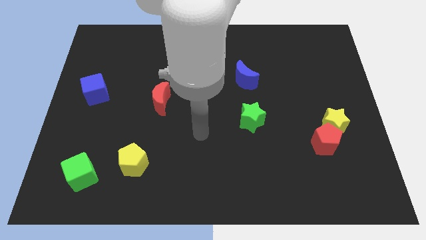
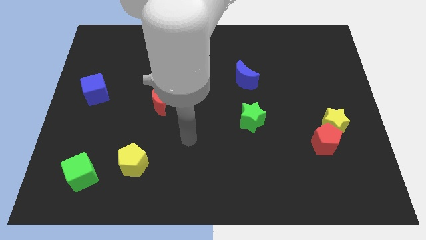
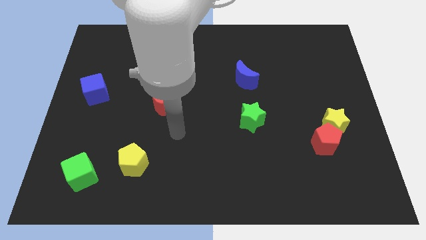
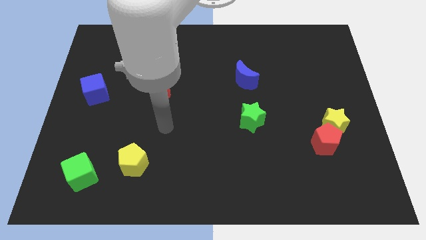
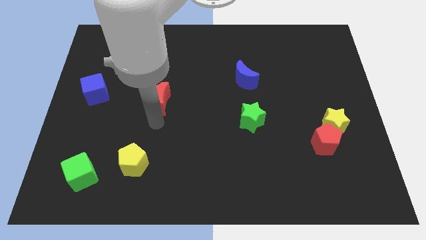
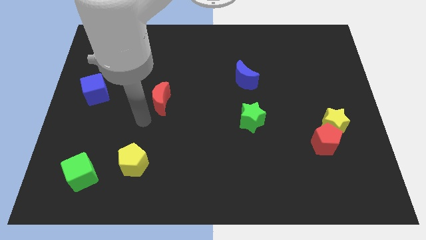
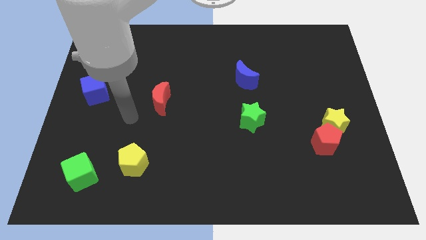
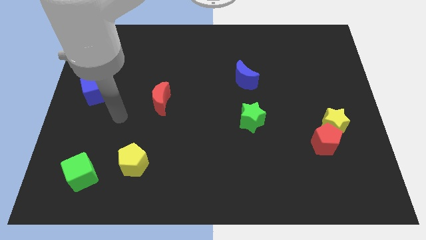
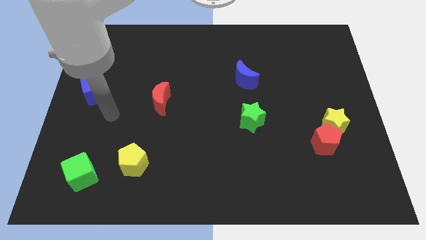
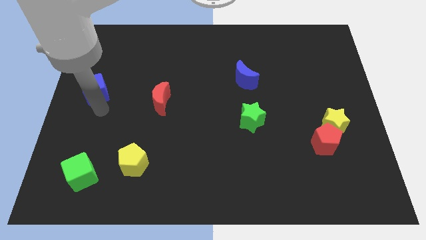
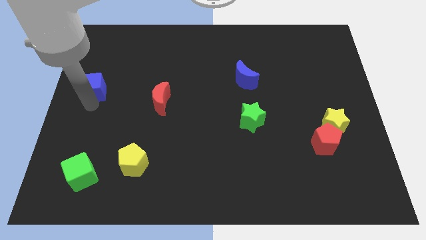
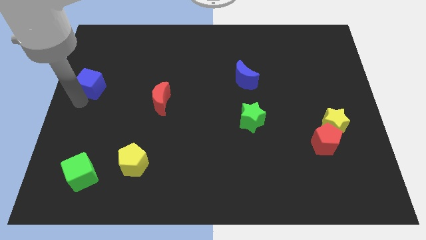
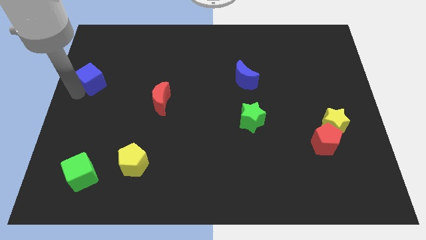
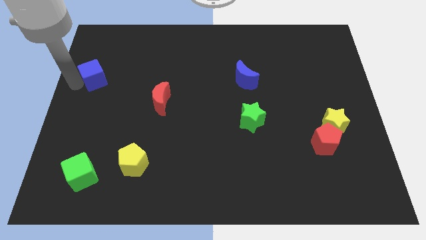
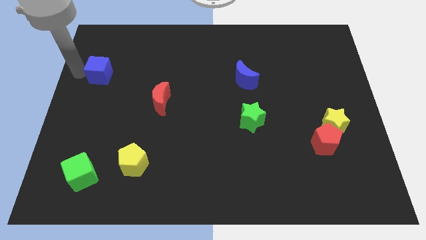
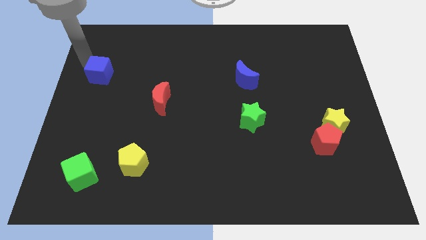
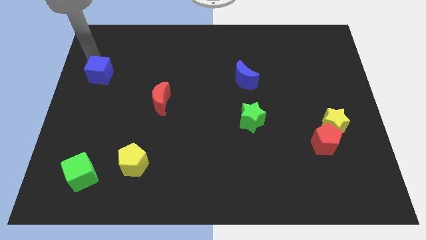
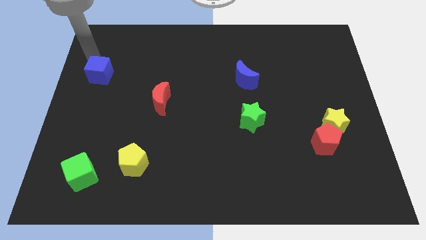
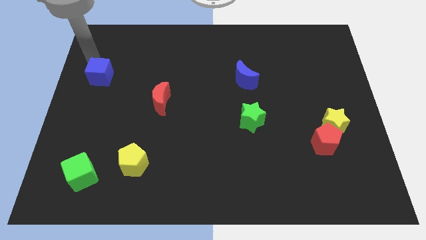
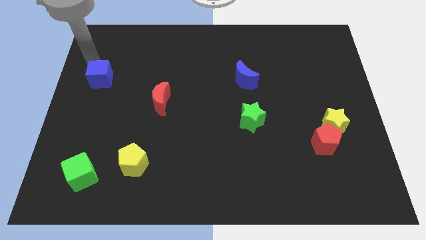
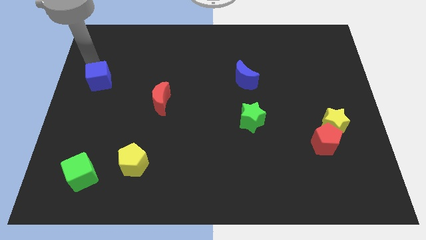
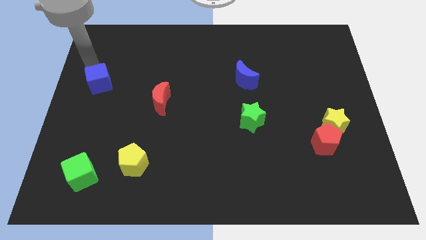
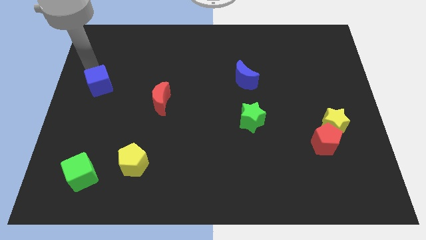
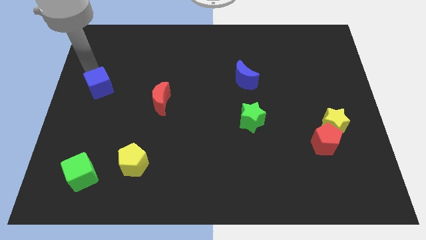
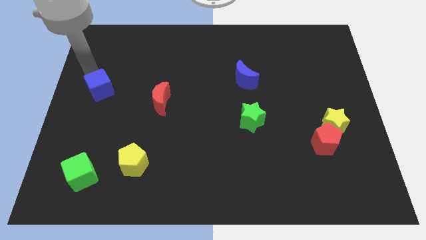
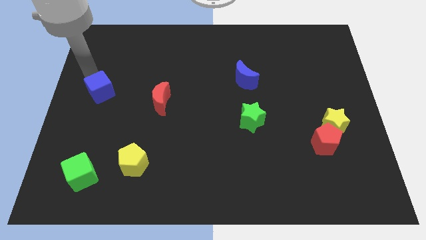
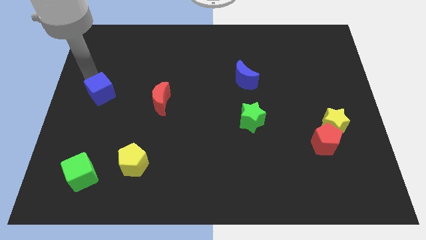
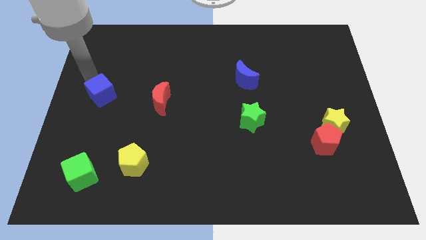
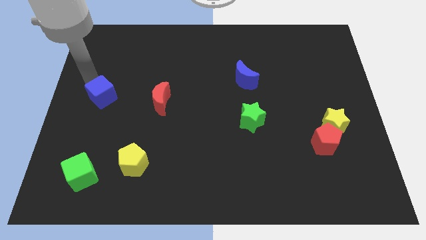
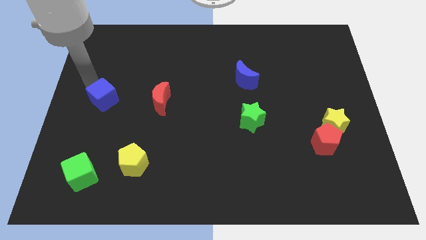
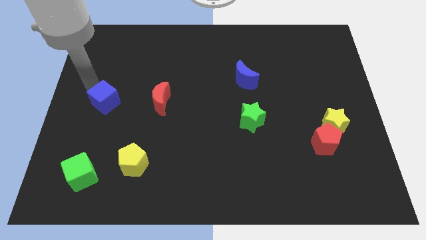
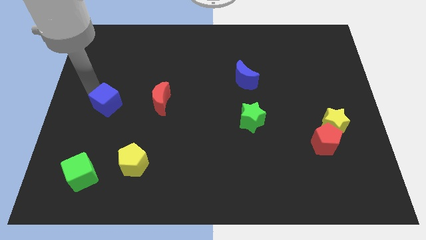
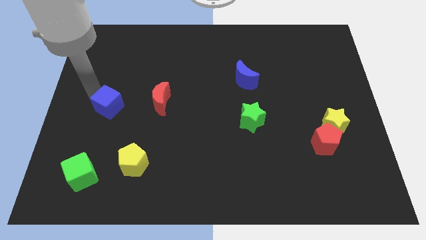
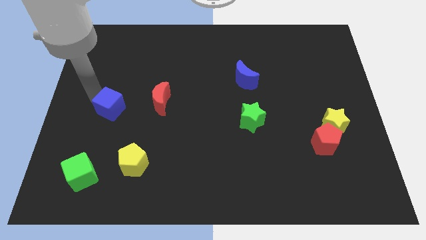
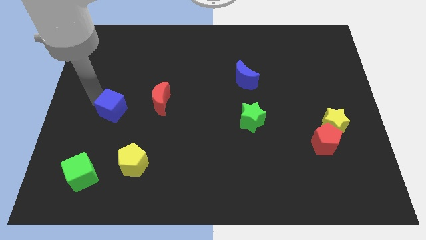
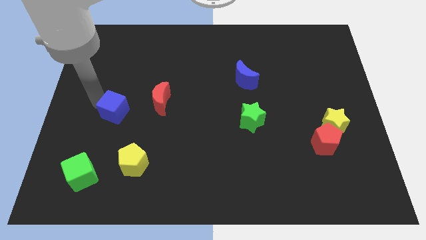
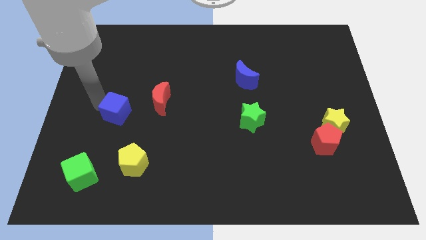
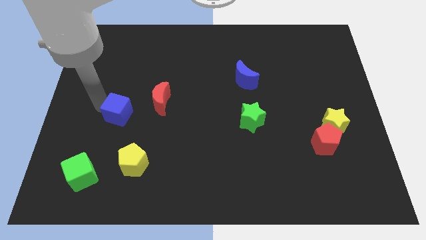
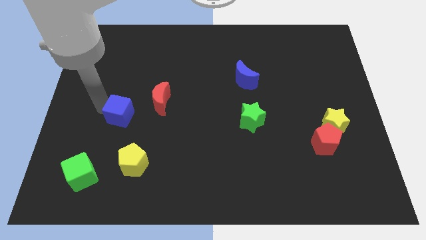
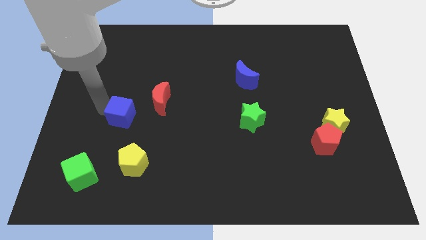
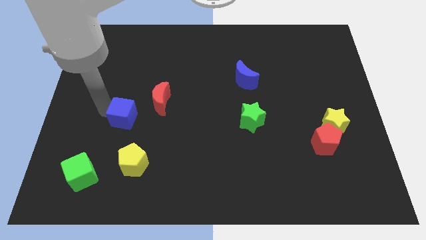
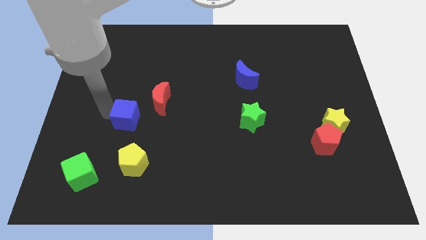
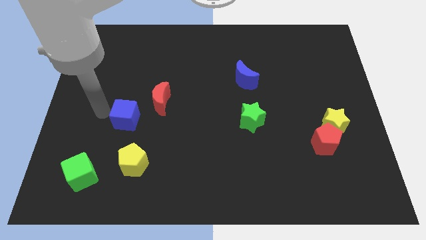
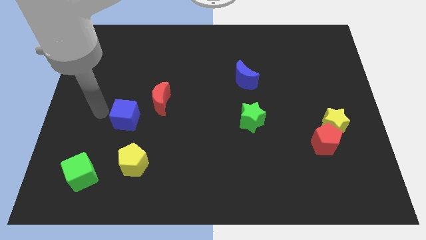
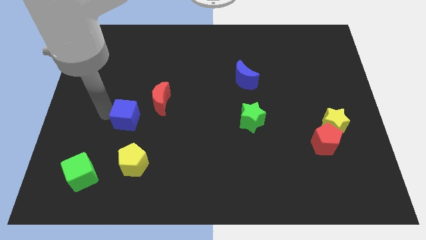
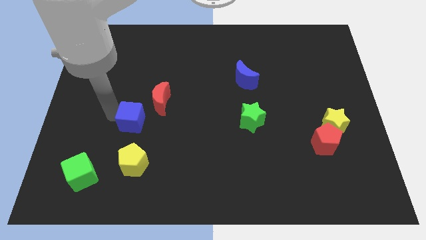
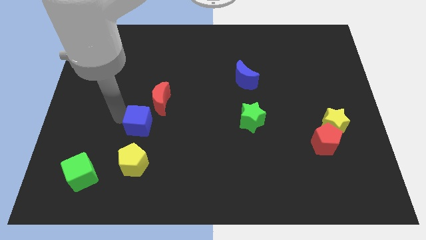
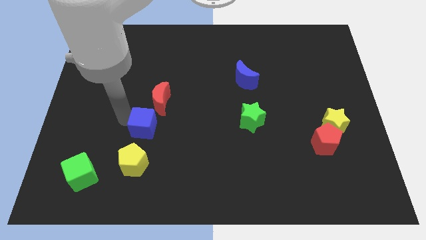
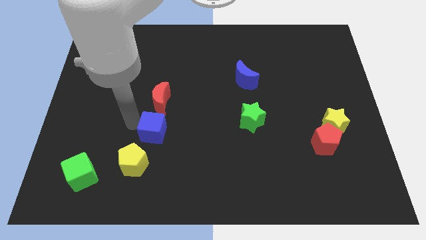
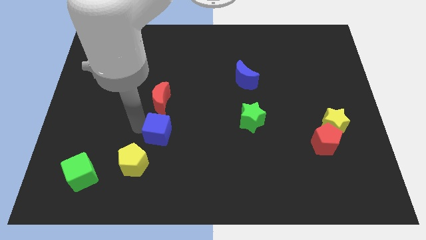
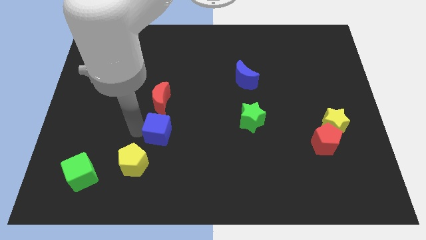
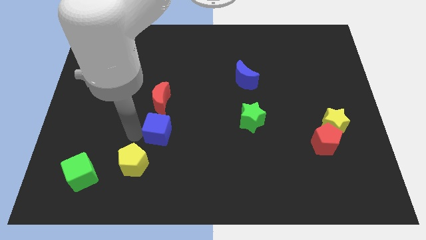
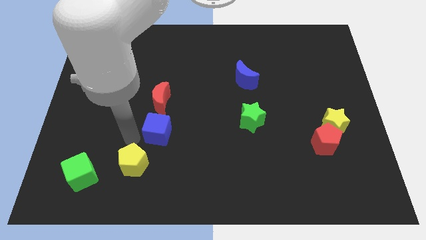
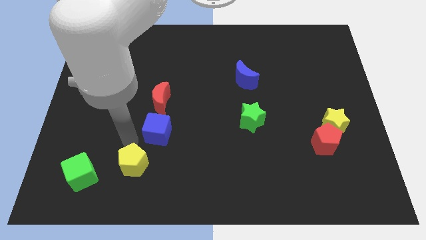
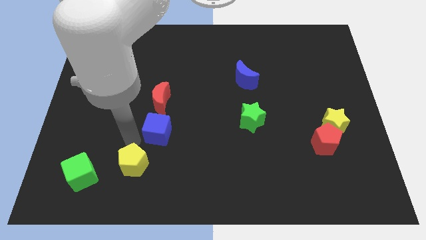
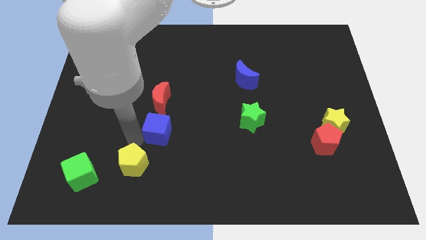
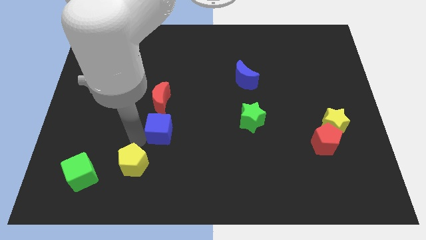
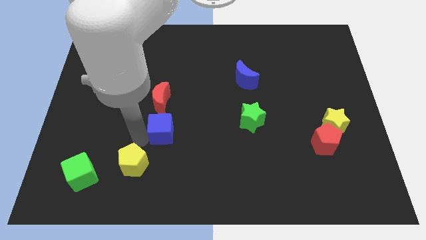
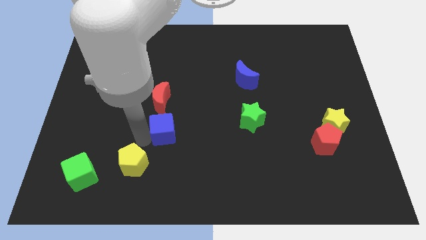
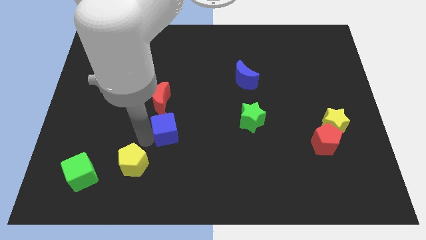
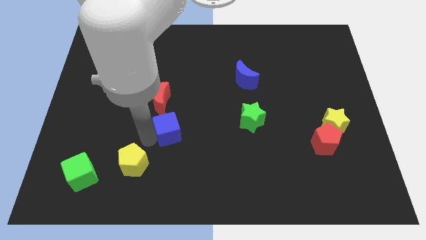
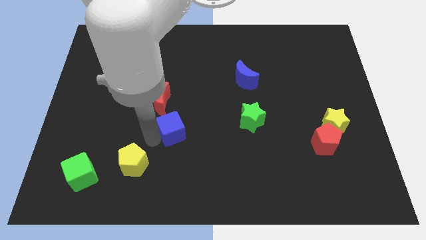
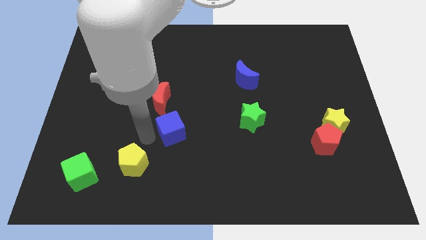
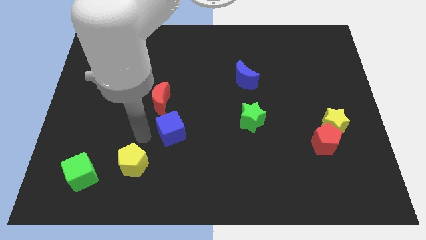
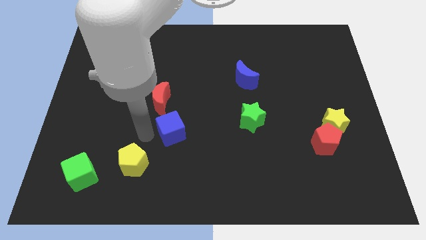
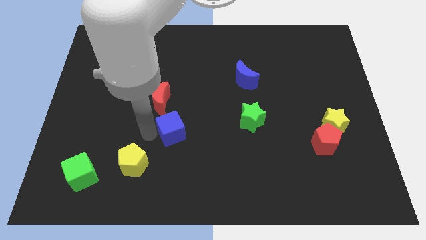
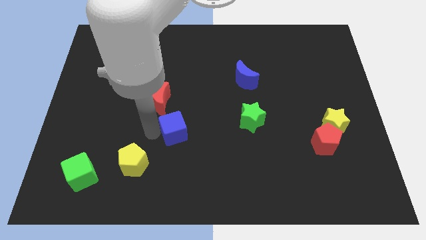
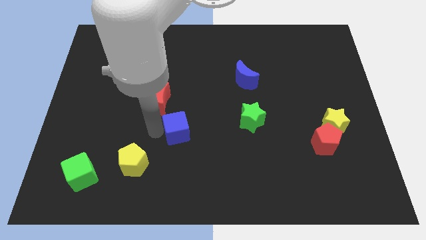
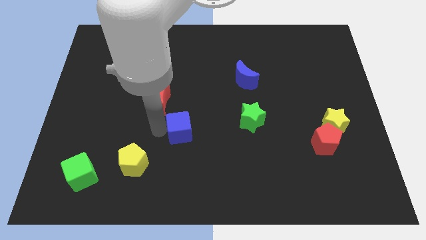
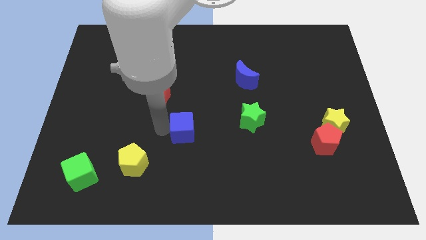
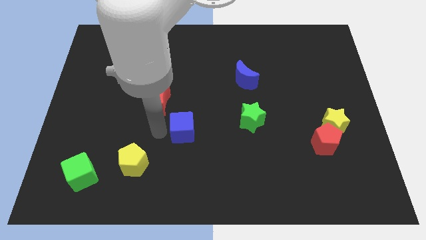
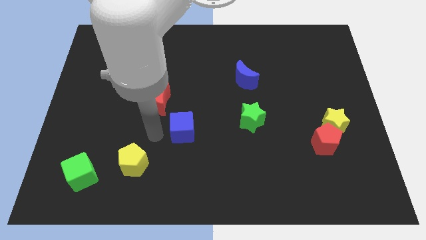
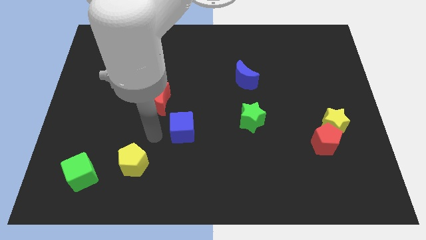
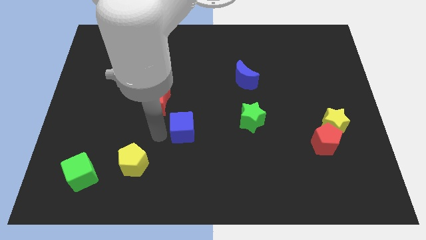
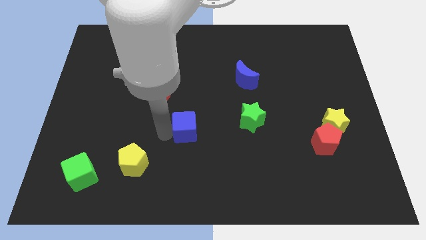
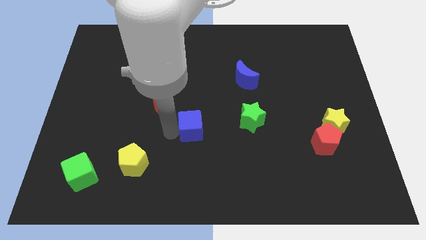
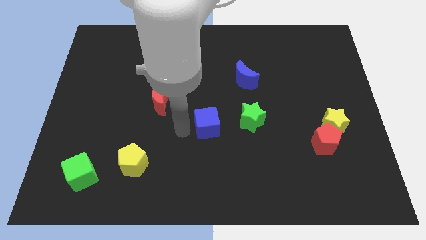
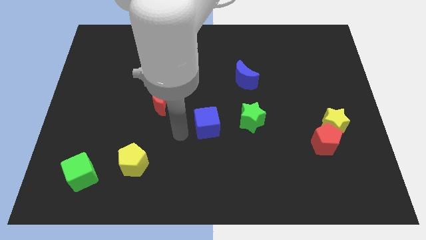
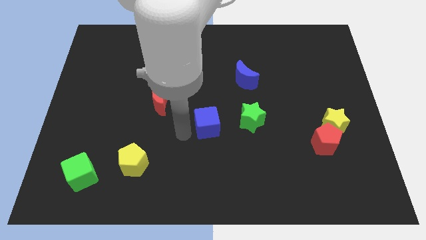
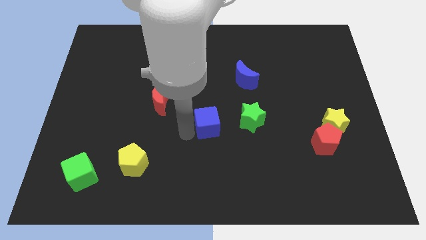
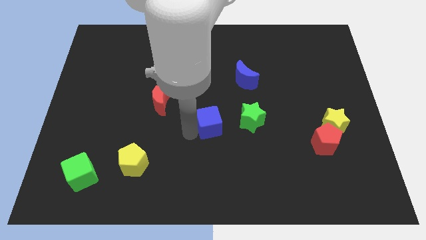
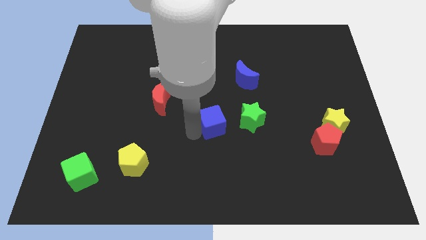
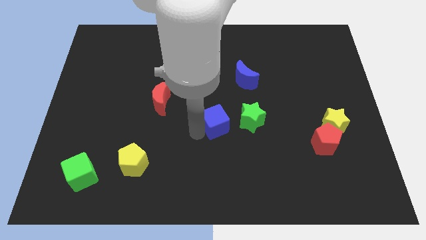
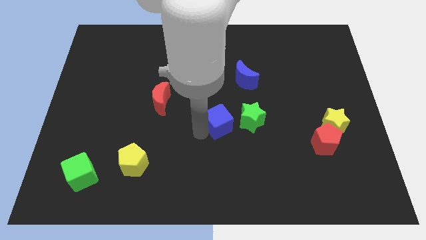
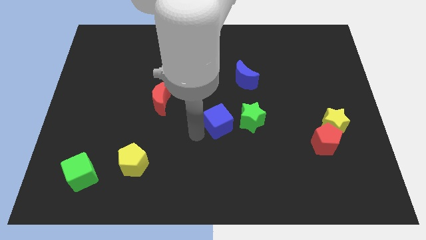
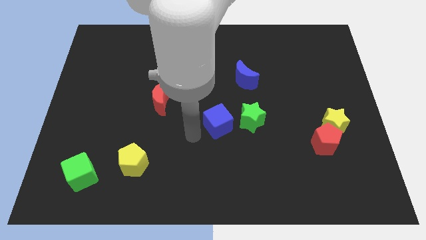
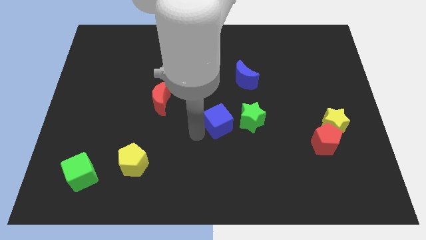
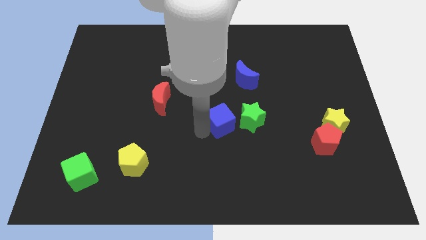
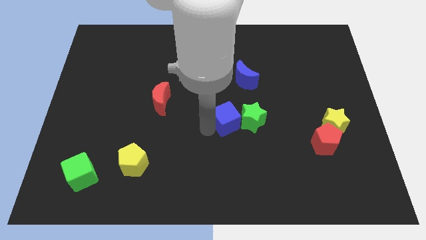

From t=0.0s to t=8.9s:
put the blue cube close to the green star
